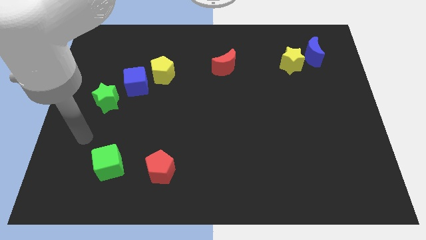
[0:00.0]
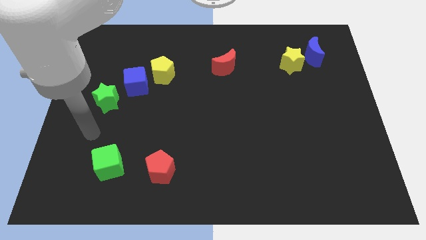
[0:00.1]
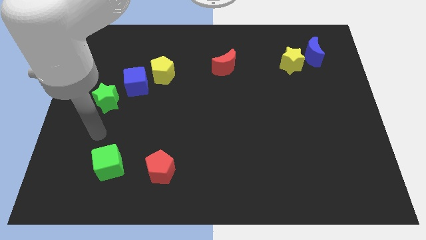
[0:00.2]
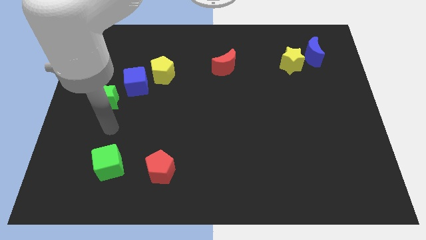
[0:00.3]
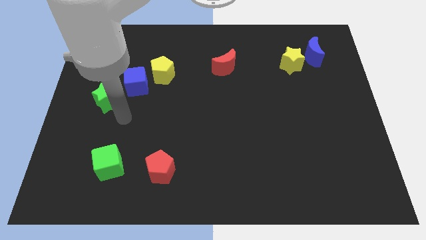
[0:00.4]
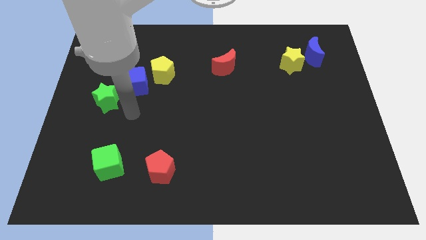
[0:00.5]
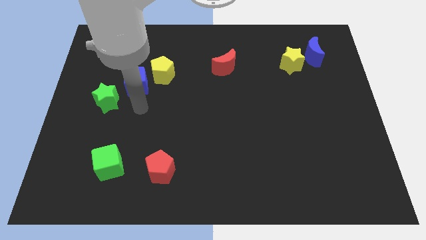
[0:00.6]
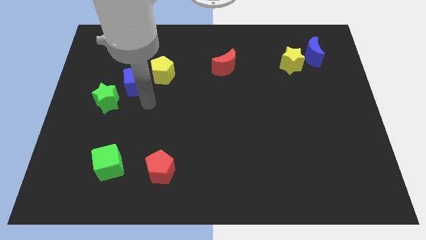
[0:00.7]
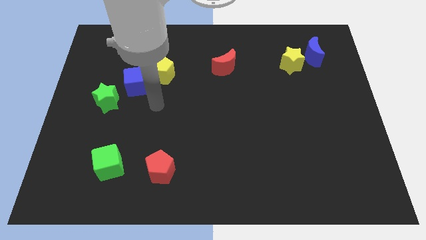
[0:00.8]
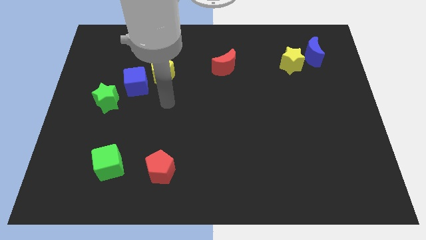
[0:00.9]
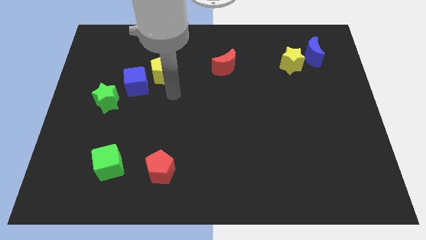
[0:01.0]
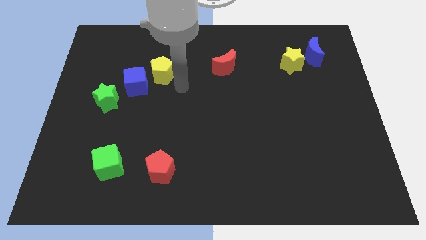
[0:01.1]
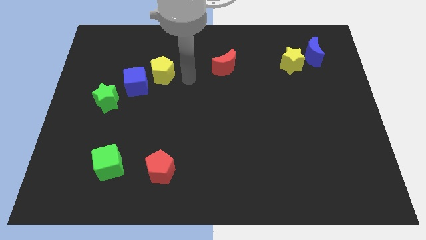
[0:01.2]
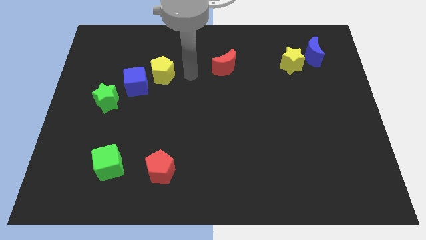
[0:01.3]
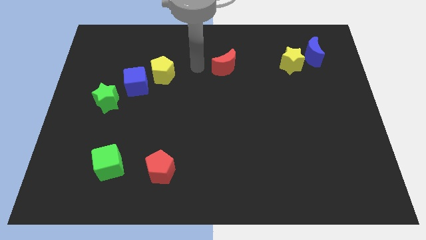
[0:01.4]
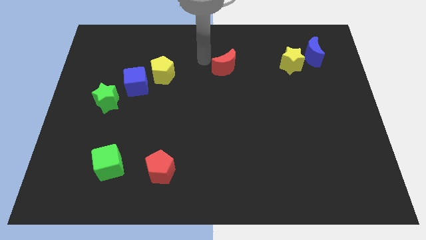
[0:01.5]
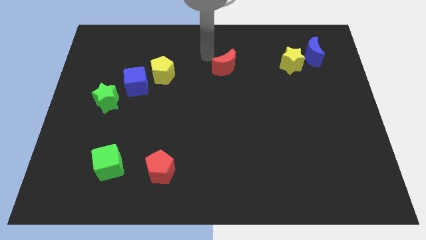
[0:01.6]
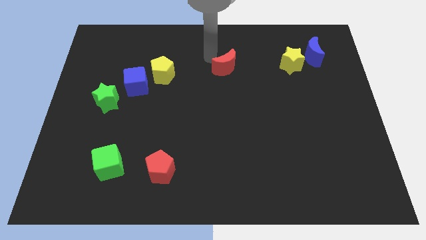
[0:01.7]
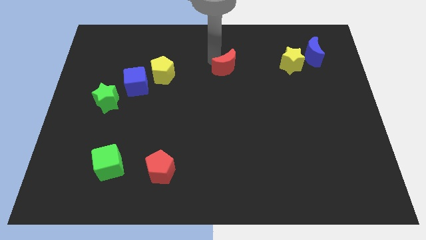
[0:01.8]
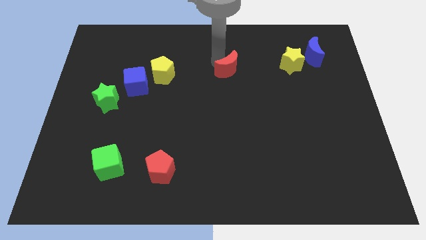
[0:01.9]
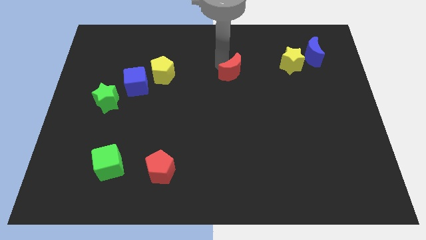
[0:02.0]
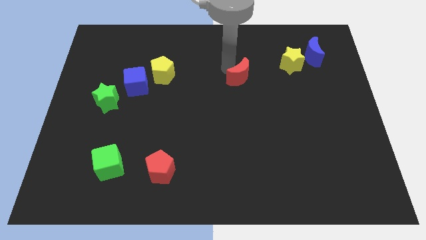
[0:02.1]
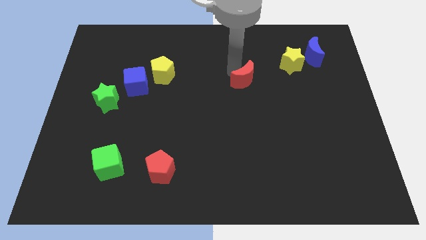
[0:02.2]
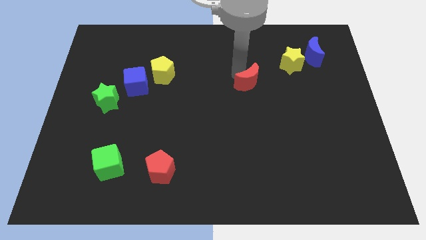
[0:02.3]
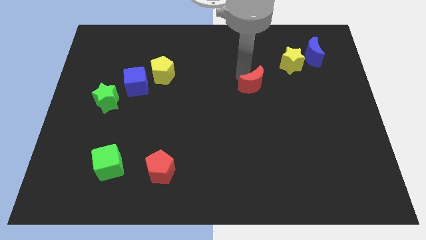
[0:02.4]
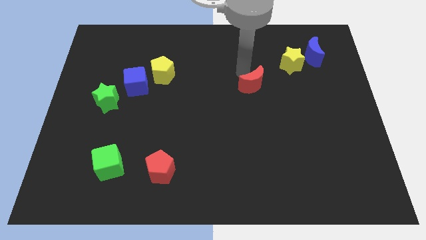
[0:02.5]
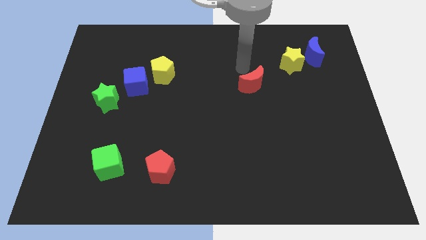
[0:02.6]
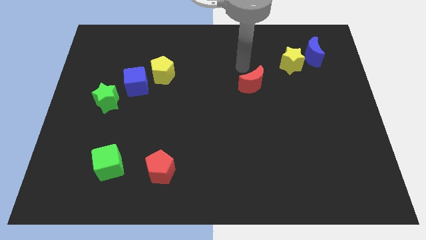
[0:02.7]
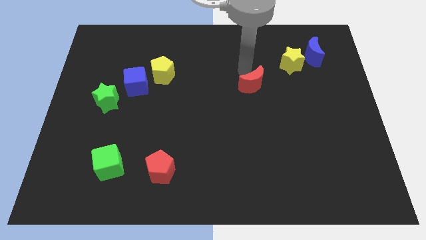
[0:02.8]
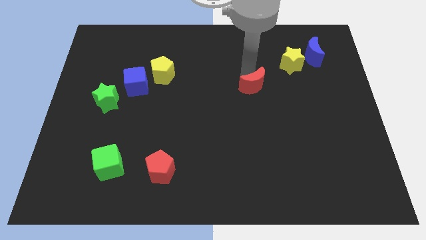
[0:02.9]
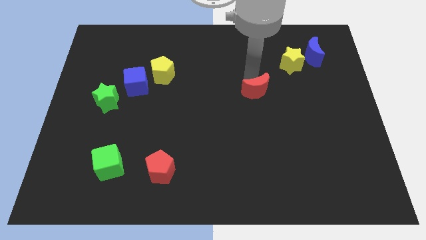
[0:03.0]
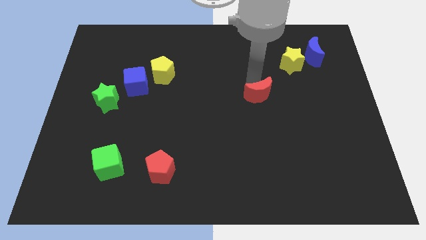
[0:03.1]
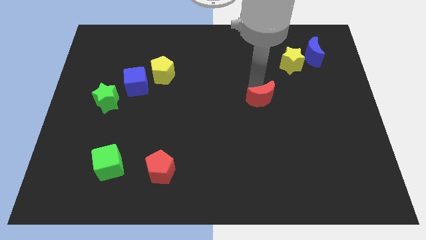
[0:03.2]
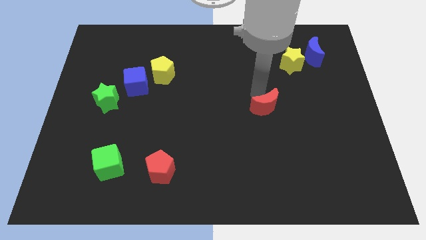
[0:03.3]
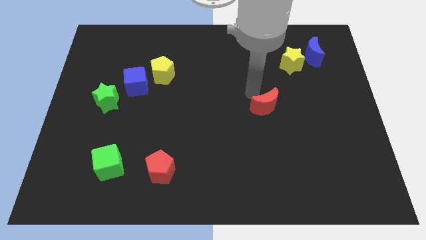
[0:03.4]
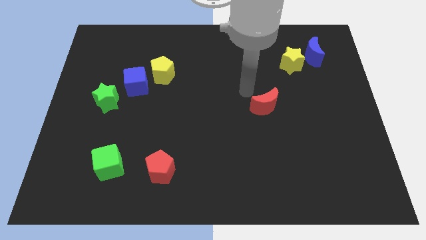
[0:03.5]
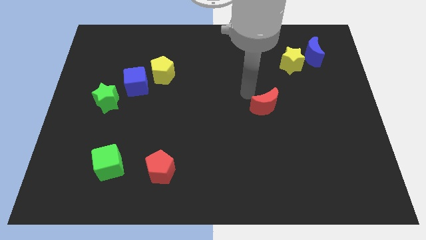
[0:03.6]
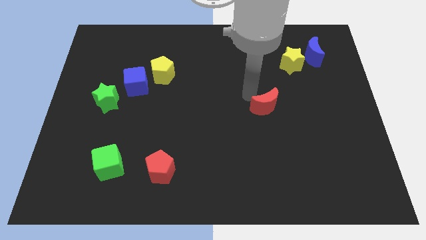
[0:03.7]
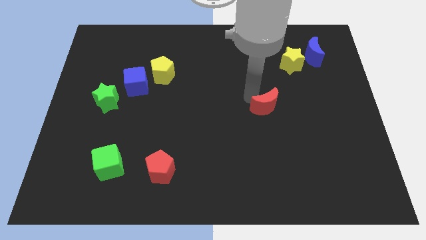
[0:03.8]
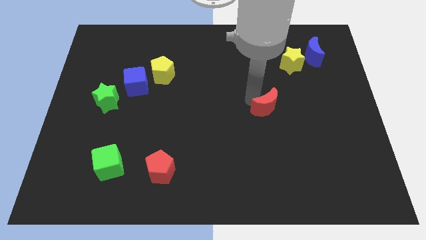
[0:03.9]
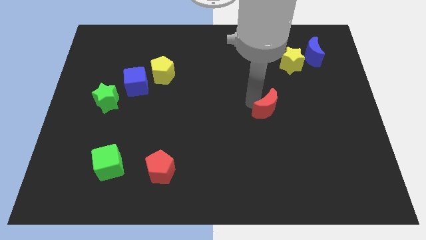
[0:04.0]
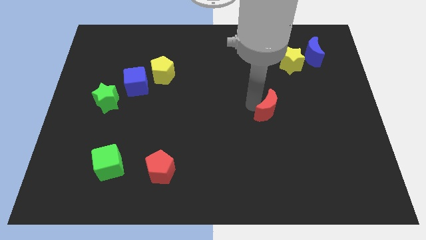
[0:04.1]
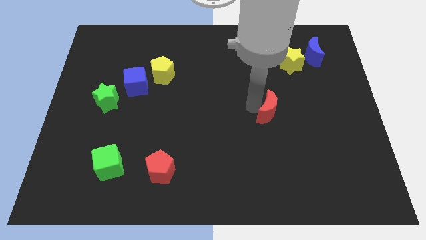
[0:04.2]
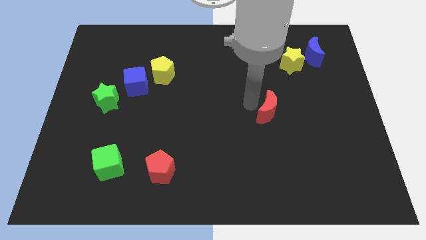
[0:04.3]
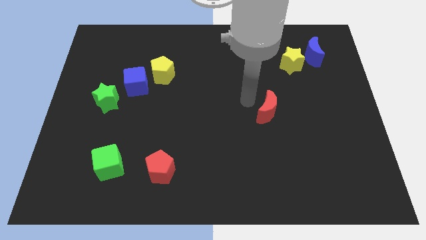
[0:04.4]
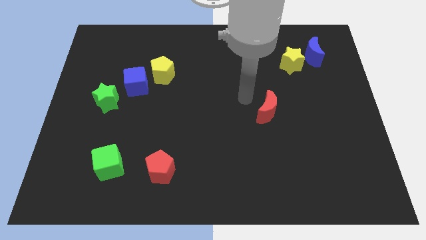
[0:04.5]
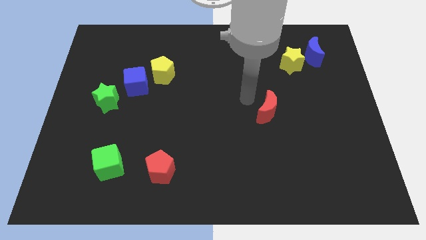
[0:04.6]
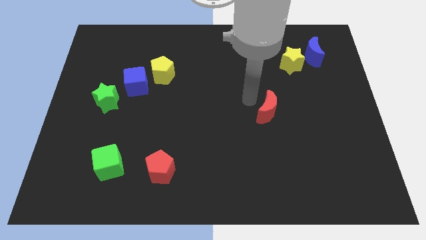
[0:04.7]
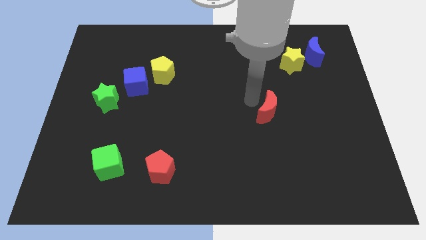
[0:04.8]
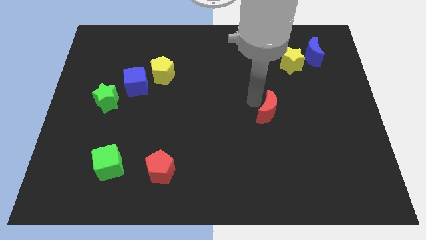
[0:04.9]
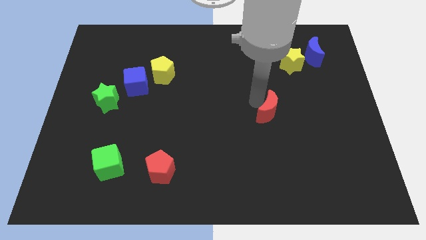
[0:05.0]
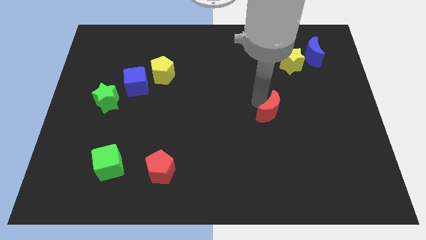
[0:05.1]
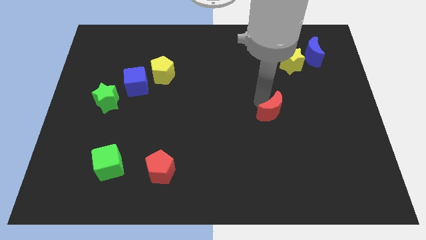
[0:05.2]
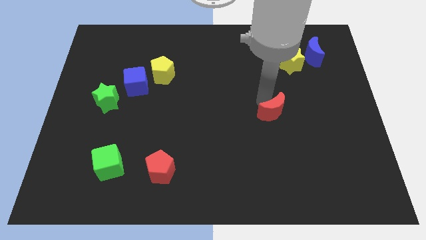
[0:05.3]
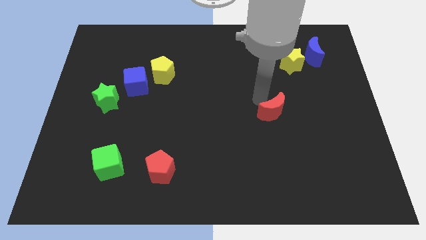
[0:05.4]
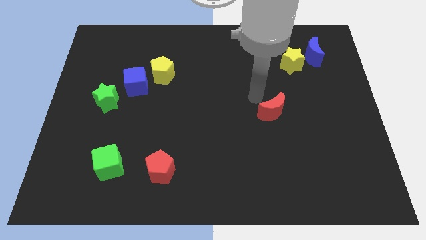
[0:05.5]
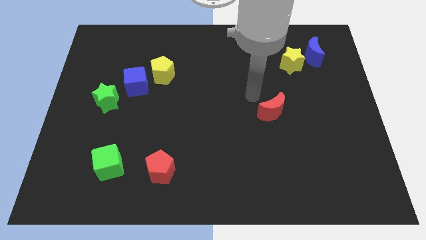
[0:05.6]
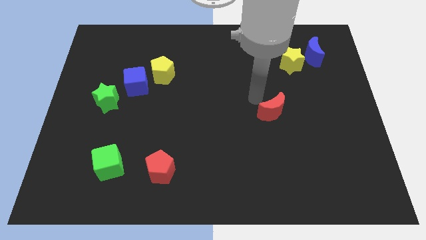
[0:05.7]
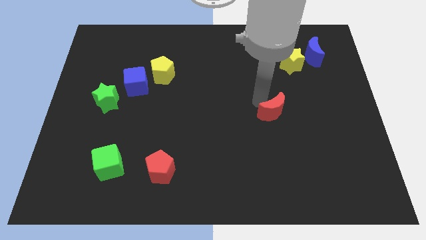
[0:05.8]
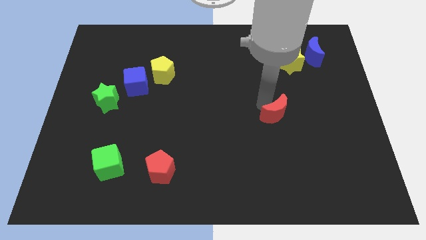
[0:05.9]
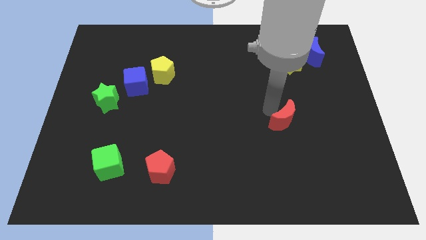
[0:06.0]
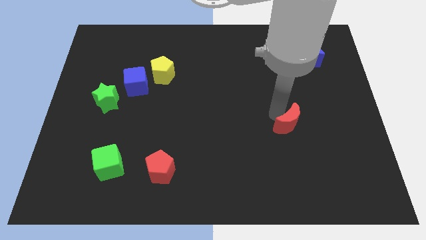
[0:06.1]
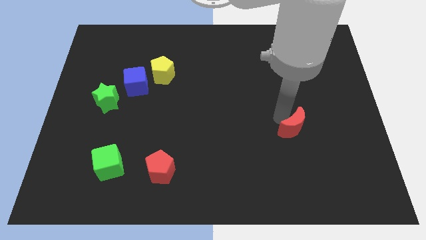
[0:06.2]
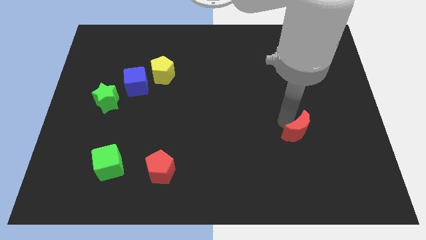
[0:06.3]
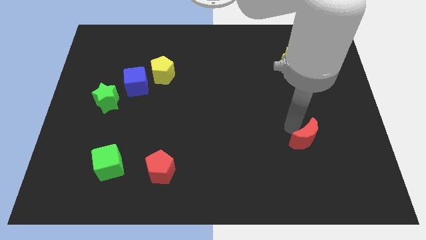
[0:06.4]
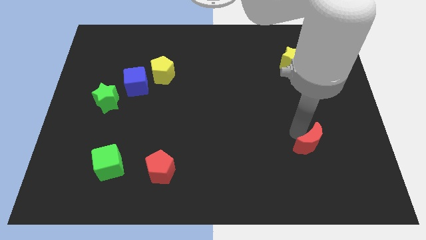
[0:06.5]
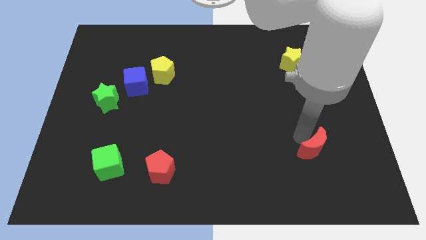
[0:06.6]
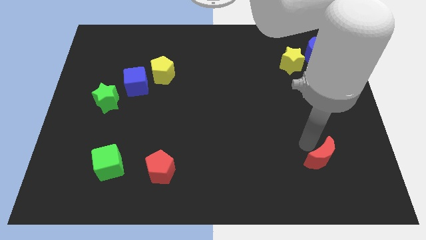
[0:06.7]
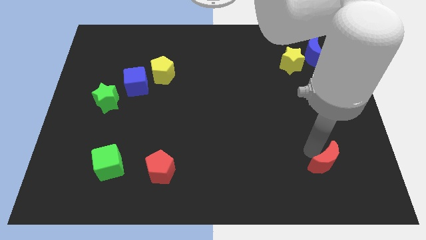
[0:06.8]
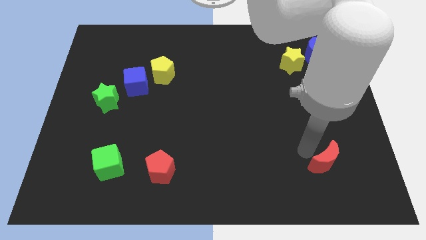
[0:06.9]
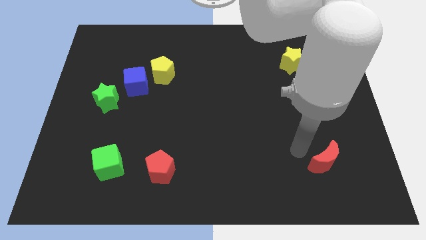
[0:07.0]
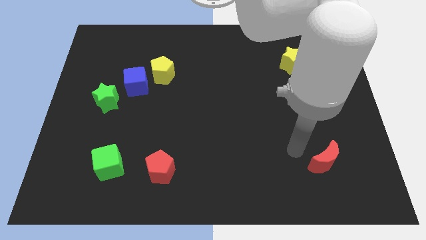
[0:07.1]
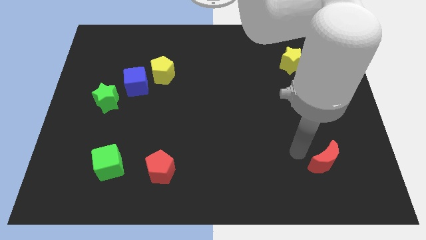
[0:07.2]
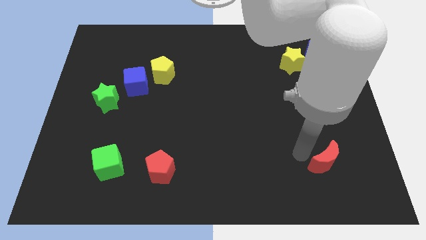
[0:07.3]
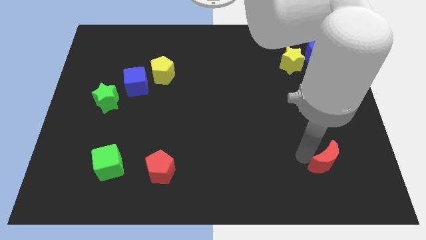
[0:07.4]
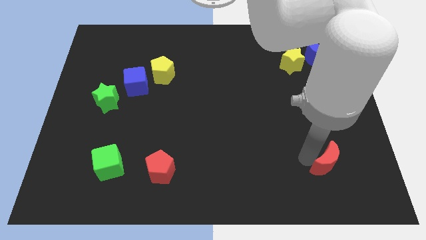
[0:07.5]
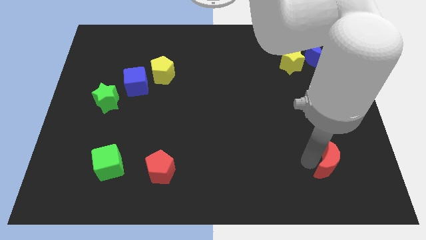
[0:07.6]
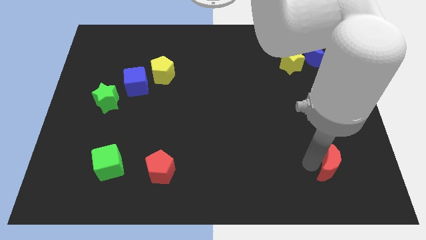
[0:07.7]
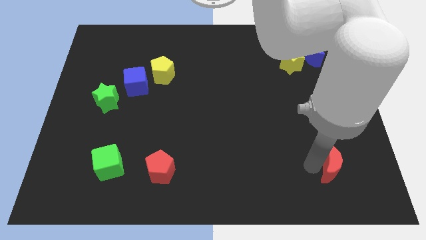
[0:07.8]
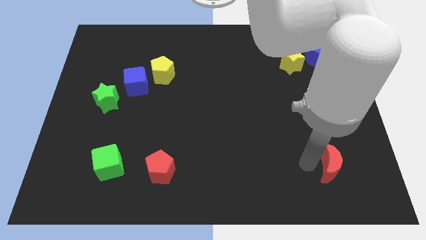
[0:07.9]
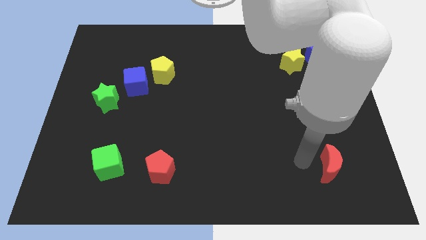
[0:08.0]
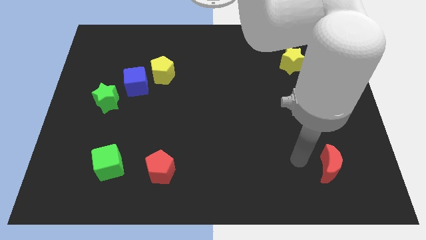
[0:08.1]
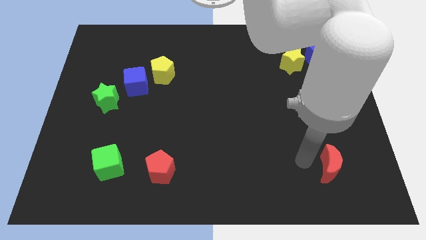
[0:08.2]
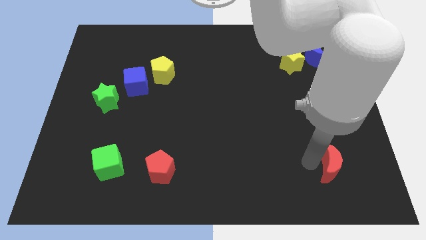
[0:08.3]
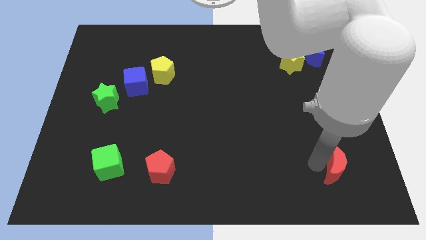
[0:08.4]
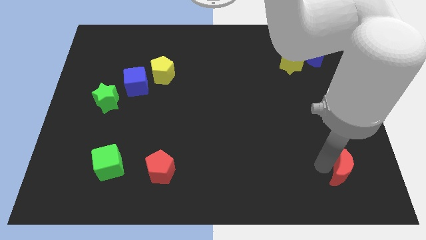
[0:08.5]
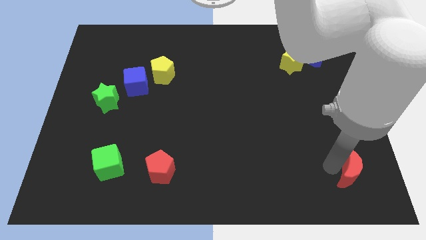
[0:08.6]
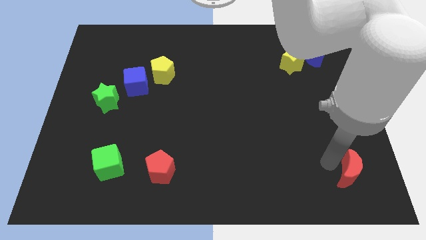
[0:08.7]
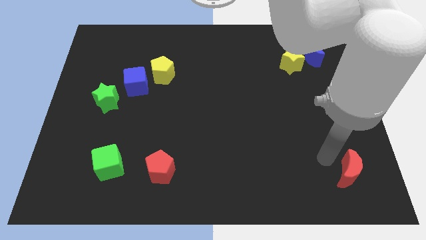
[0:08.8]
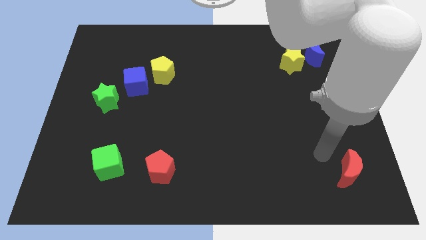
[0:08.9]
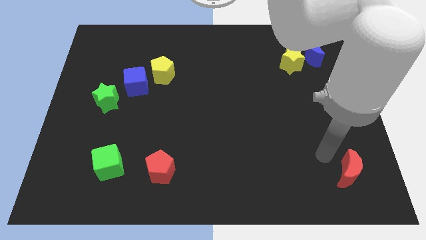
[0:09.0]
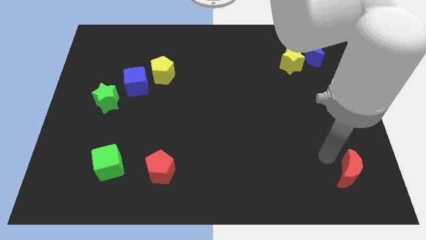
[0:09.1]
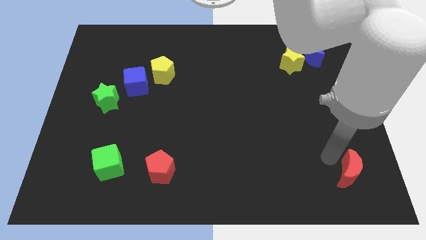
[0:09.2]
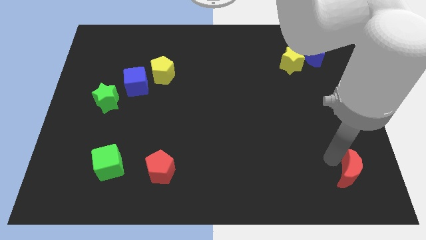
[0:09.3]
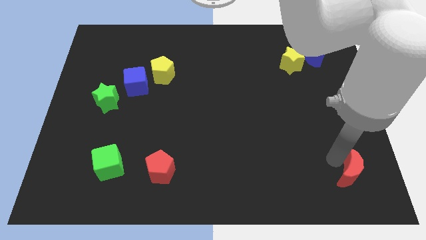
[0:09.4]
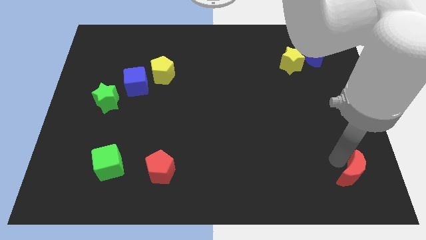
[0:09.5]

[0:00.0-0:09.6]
move the red moon to the bottom right of the board
